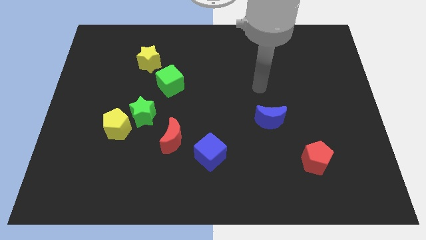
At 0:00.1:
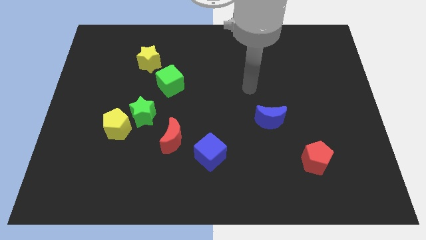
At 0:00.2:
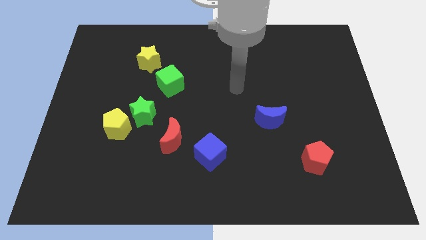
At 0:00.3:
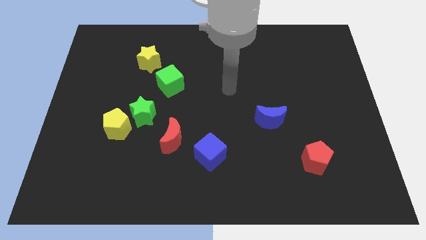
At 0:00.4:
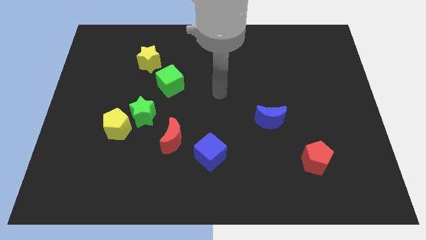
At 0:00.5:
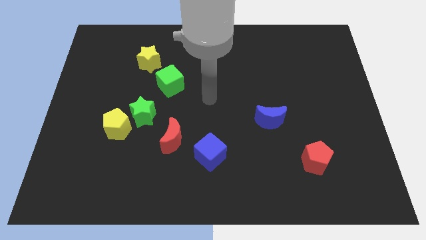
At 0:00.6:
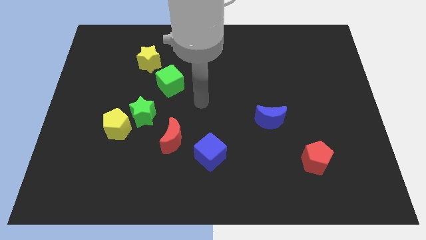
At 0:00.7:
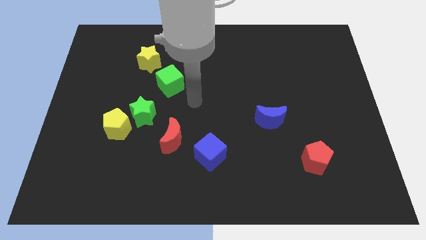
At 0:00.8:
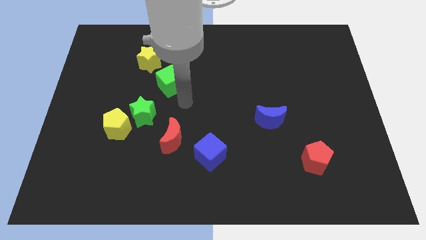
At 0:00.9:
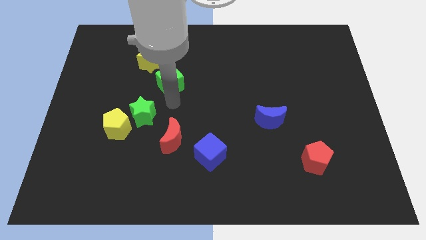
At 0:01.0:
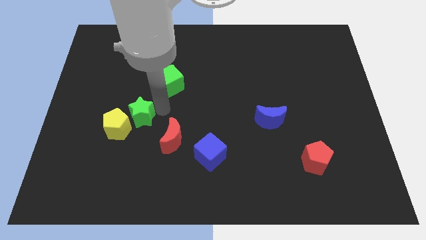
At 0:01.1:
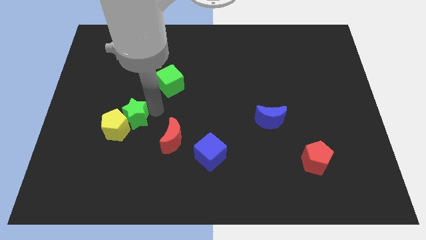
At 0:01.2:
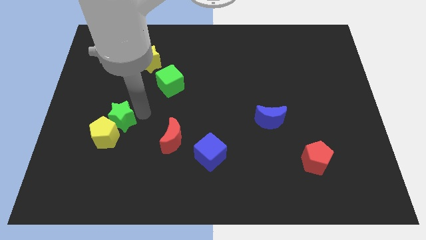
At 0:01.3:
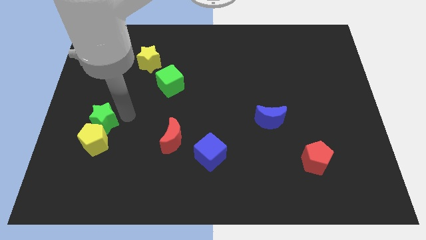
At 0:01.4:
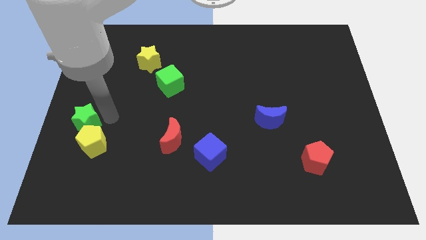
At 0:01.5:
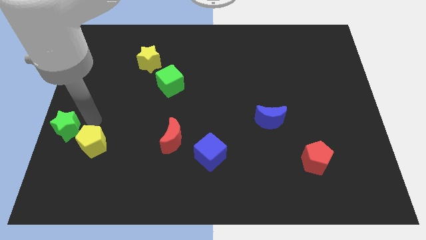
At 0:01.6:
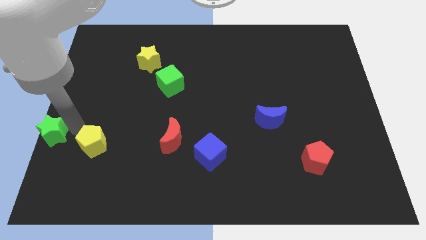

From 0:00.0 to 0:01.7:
separate the yellow pentagon from the green star

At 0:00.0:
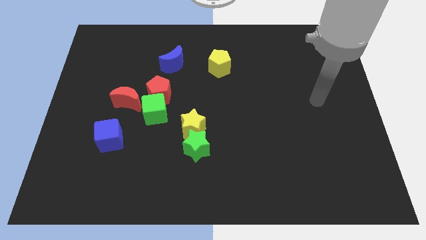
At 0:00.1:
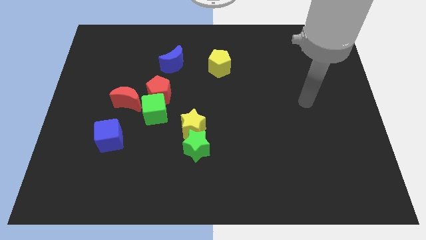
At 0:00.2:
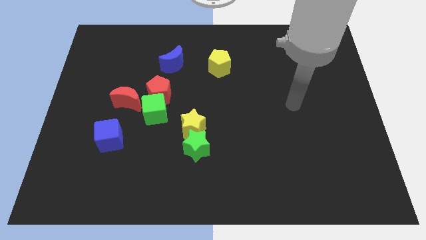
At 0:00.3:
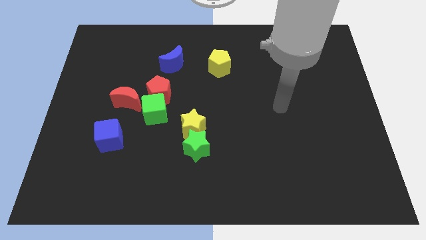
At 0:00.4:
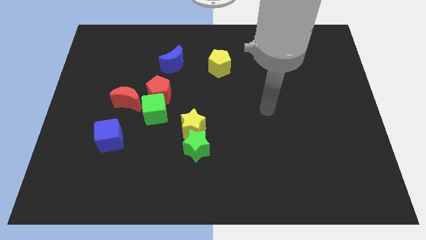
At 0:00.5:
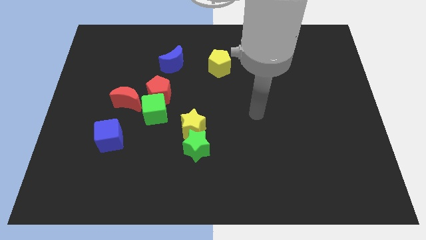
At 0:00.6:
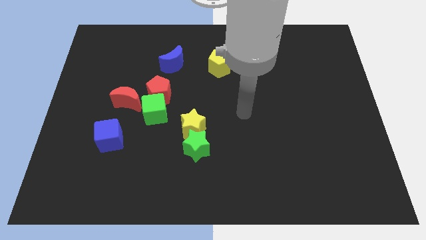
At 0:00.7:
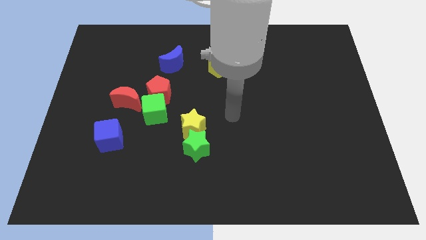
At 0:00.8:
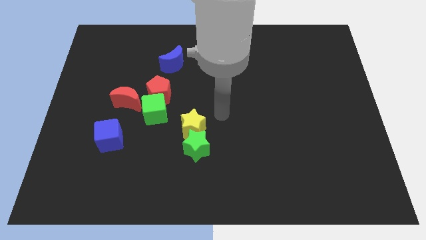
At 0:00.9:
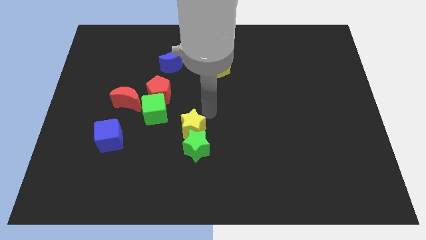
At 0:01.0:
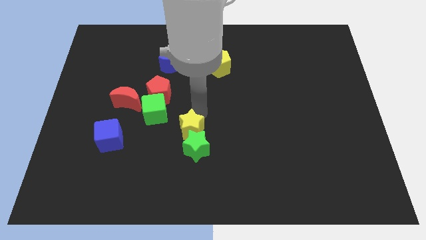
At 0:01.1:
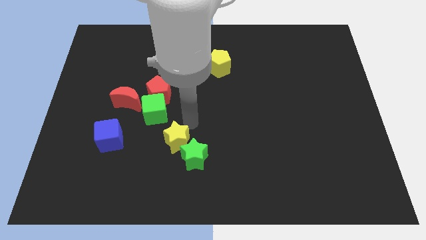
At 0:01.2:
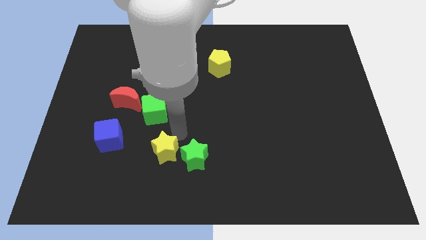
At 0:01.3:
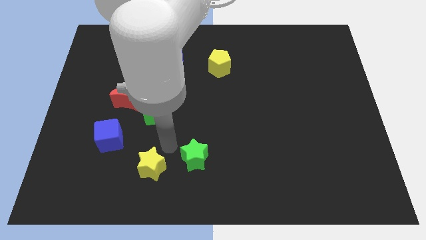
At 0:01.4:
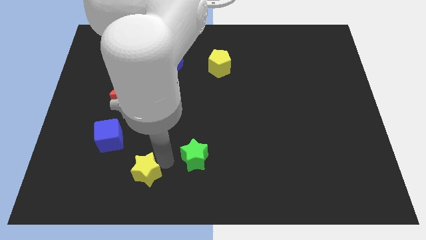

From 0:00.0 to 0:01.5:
separate the green star from the yellow star

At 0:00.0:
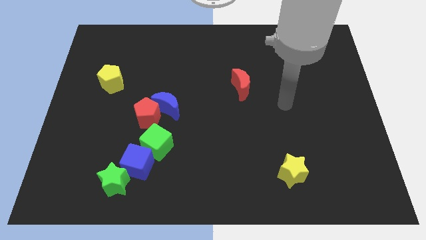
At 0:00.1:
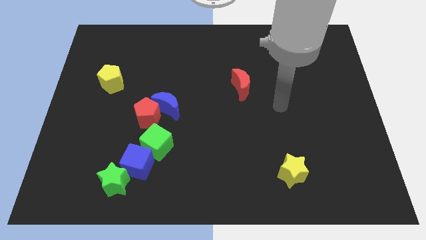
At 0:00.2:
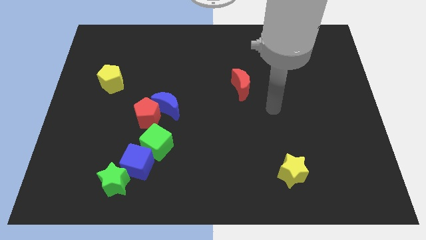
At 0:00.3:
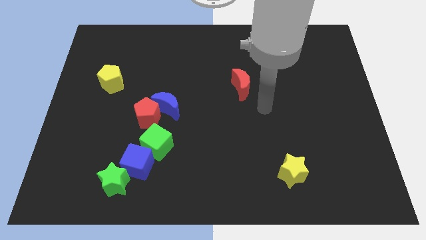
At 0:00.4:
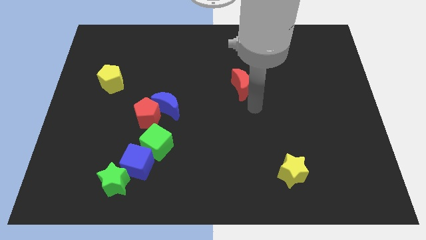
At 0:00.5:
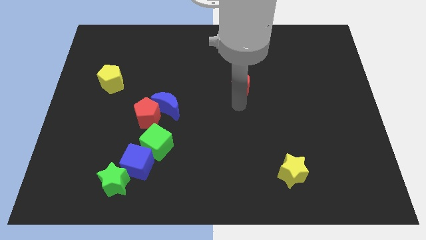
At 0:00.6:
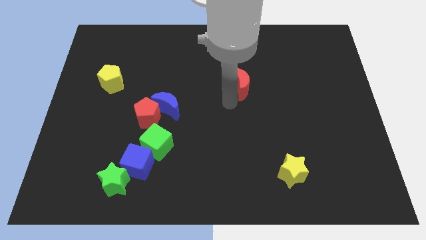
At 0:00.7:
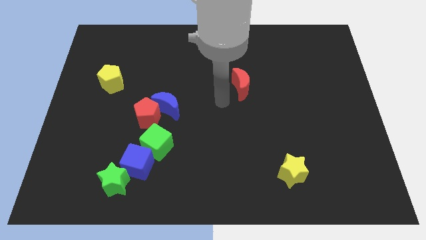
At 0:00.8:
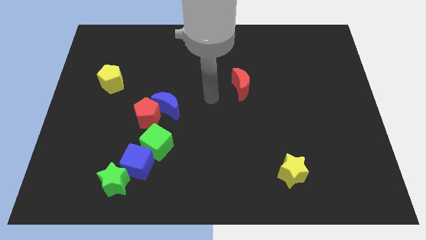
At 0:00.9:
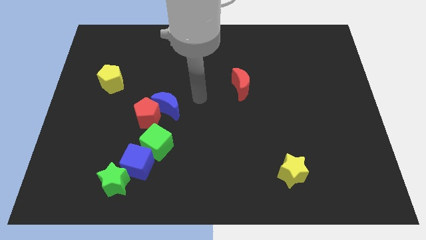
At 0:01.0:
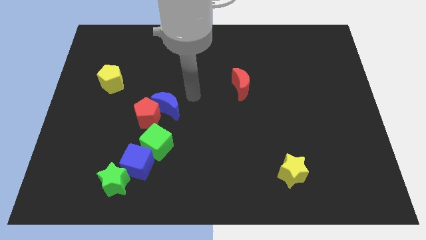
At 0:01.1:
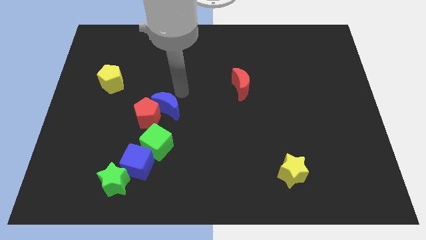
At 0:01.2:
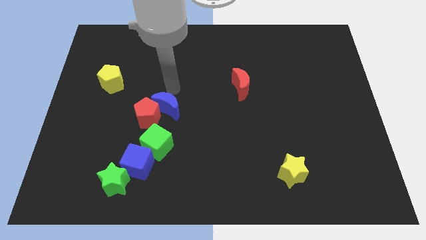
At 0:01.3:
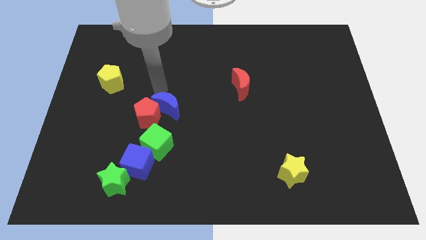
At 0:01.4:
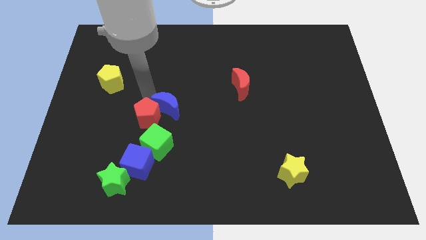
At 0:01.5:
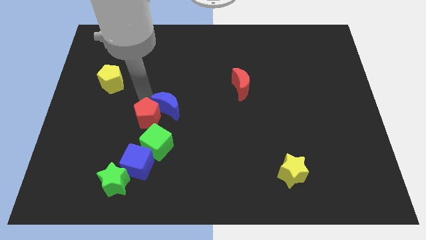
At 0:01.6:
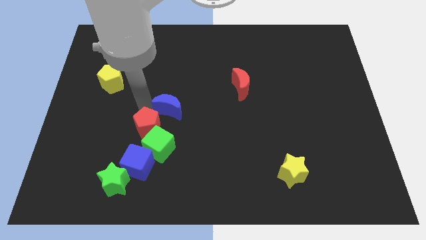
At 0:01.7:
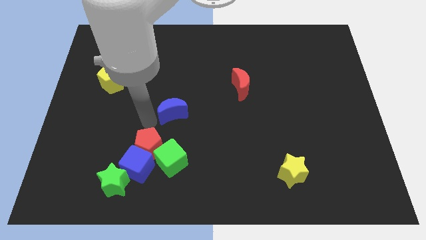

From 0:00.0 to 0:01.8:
pull the blue moon apart from the red pentagon

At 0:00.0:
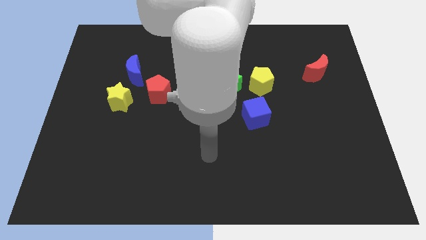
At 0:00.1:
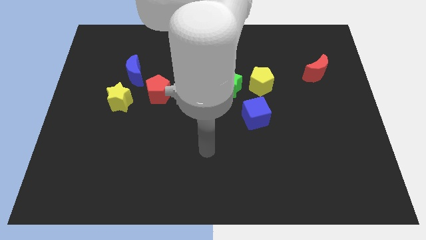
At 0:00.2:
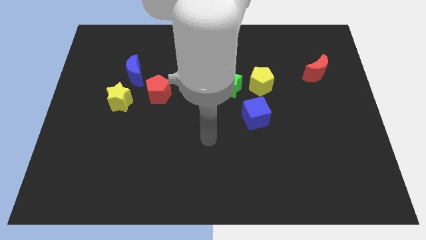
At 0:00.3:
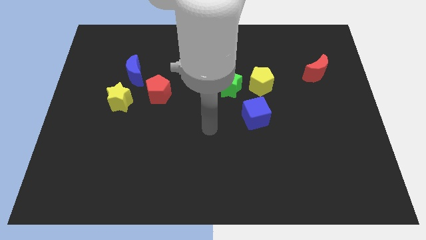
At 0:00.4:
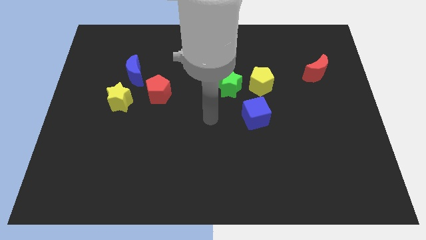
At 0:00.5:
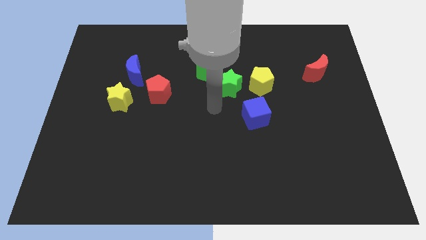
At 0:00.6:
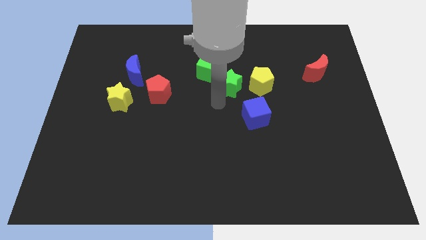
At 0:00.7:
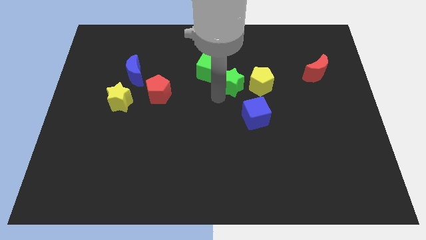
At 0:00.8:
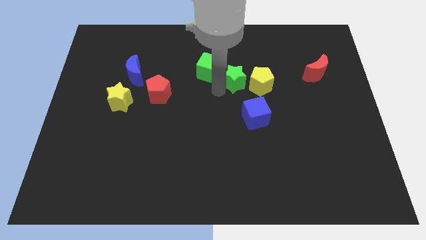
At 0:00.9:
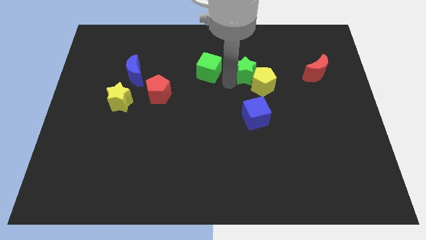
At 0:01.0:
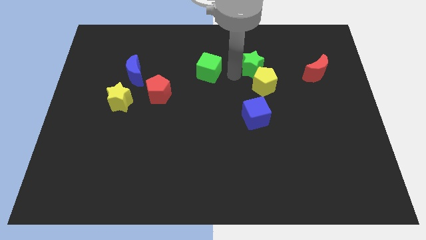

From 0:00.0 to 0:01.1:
separate the green cube from the green star

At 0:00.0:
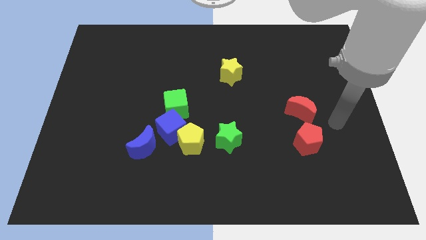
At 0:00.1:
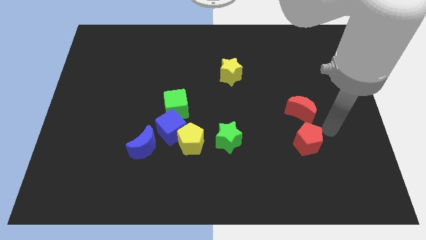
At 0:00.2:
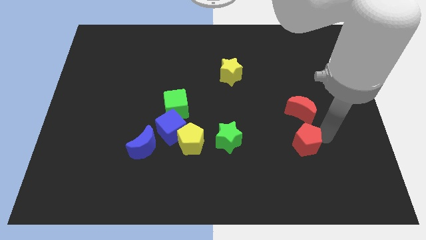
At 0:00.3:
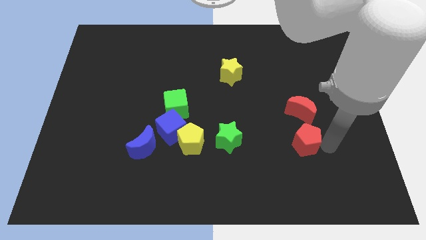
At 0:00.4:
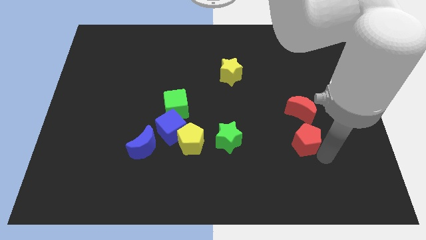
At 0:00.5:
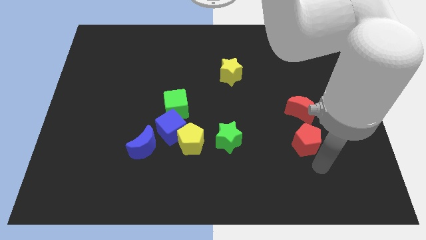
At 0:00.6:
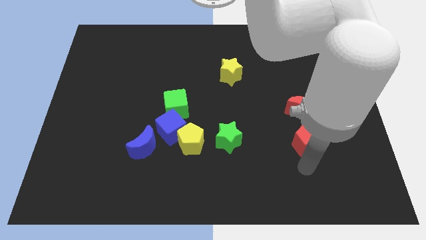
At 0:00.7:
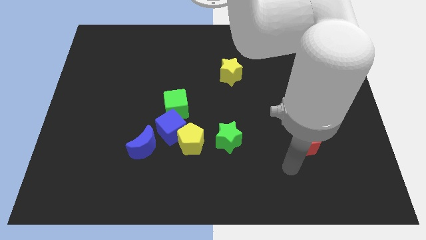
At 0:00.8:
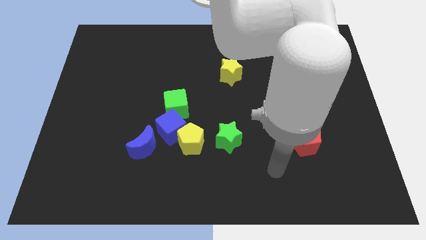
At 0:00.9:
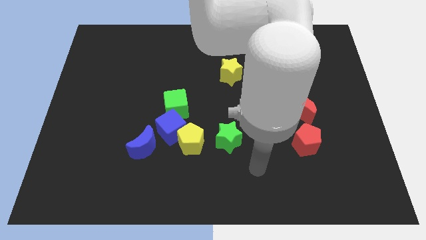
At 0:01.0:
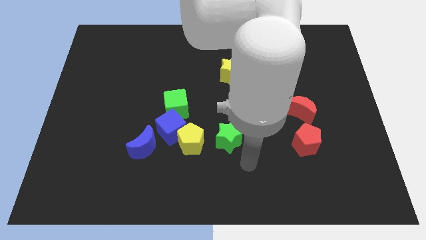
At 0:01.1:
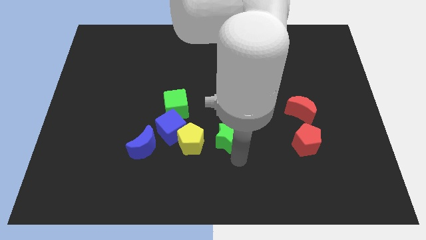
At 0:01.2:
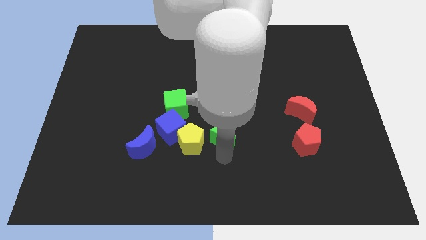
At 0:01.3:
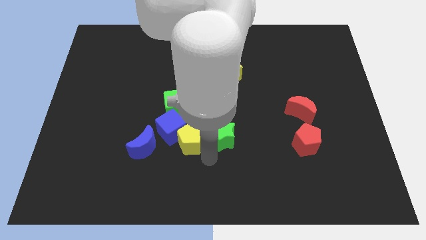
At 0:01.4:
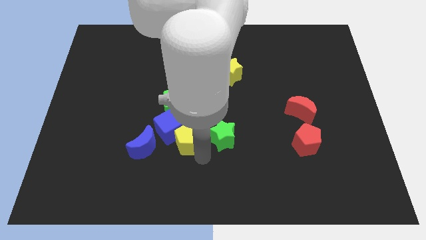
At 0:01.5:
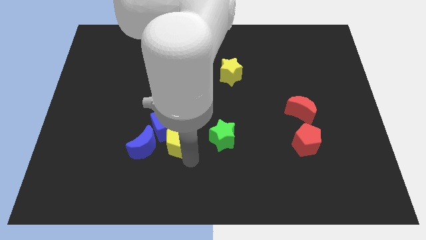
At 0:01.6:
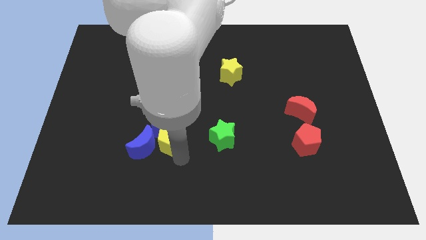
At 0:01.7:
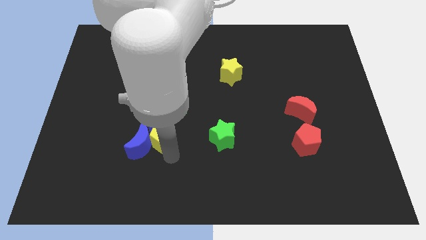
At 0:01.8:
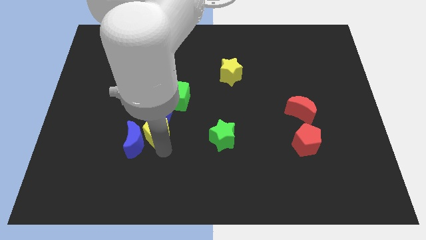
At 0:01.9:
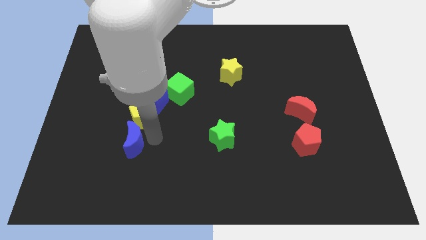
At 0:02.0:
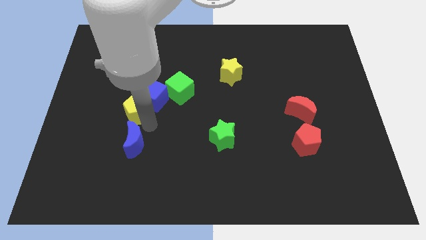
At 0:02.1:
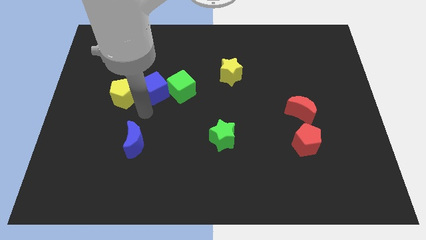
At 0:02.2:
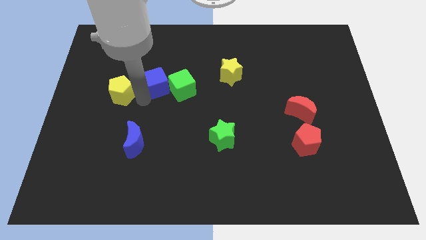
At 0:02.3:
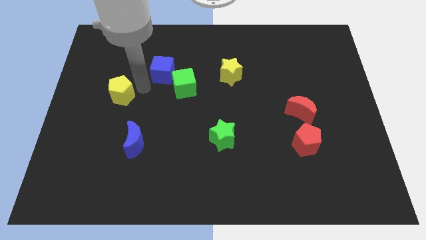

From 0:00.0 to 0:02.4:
pull the blue cube apart from the yellow pentagon, green cube, and blue moon

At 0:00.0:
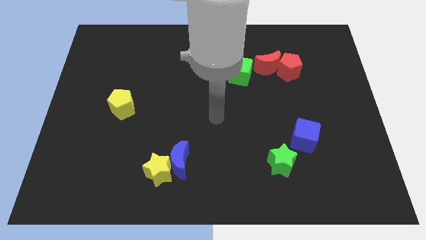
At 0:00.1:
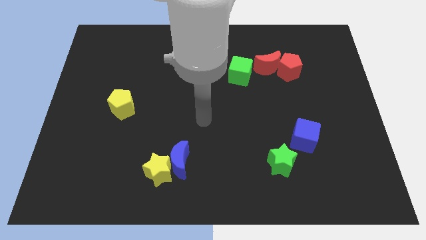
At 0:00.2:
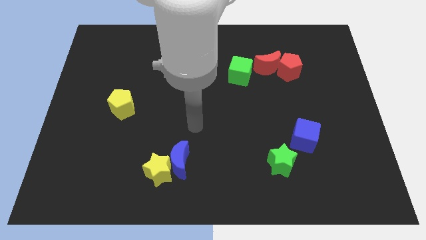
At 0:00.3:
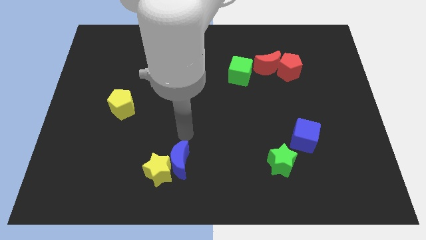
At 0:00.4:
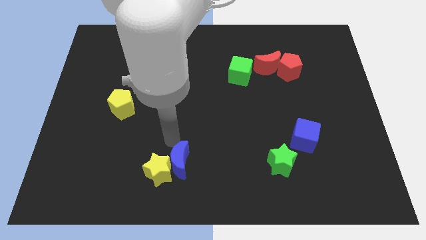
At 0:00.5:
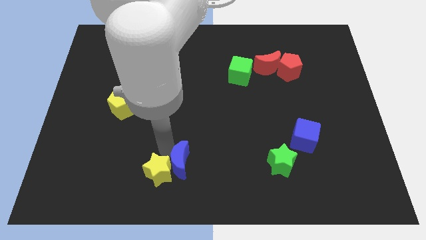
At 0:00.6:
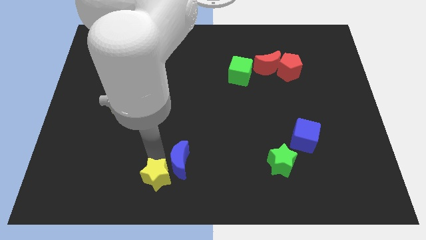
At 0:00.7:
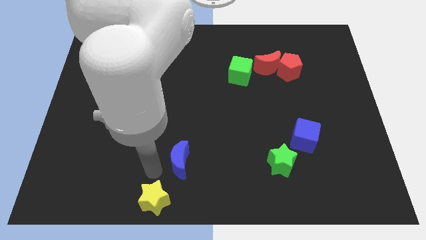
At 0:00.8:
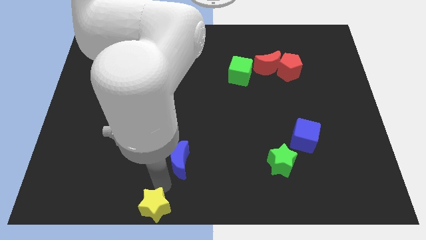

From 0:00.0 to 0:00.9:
separate the blue moon from the yellow star
